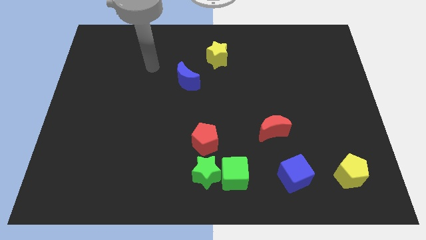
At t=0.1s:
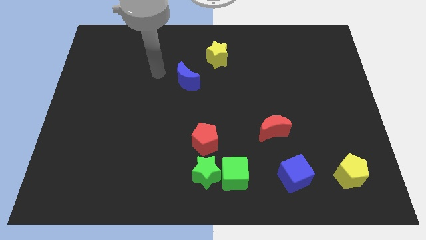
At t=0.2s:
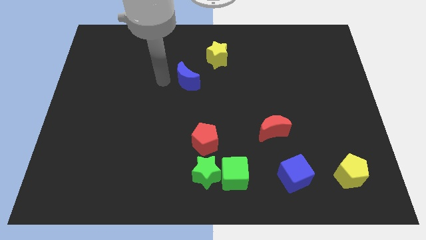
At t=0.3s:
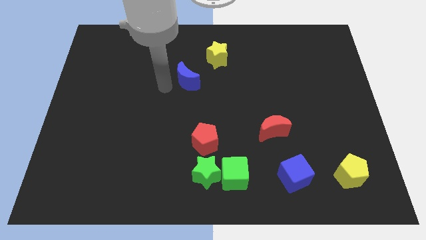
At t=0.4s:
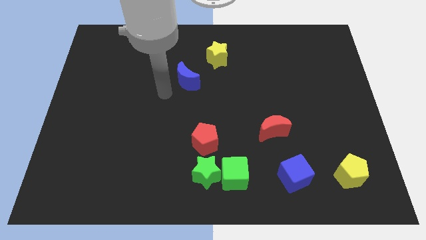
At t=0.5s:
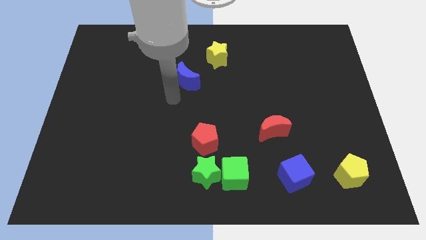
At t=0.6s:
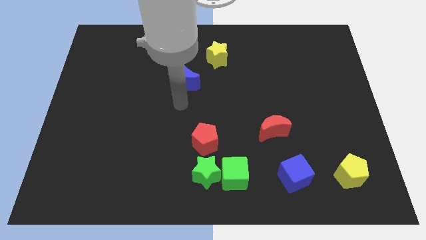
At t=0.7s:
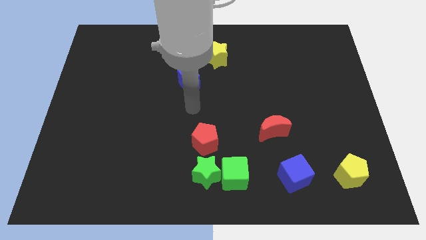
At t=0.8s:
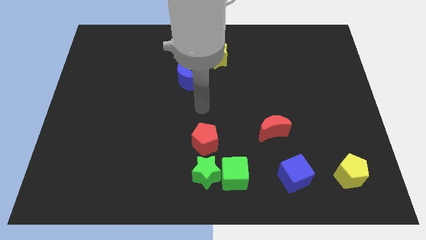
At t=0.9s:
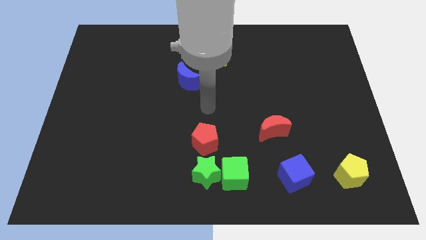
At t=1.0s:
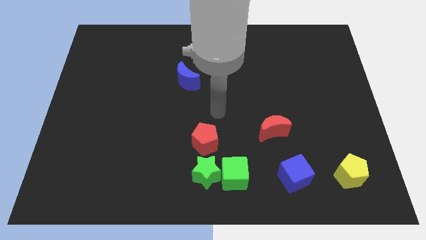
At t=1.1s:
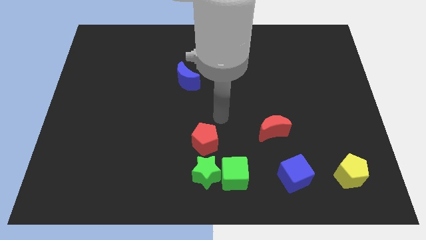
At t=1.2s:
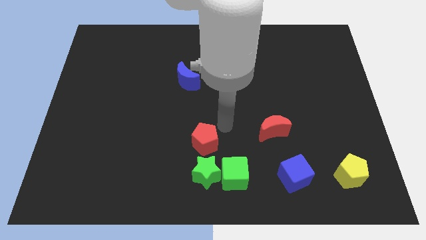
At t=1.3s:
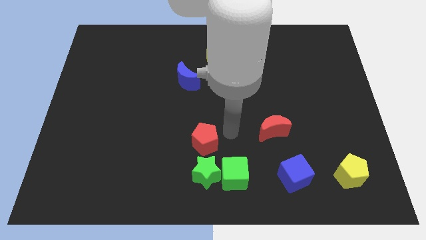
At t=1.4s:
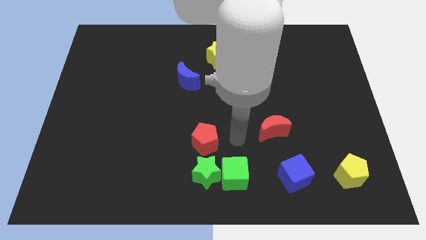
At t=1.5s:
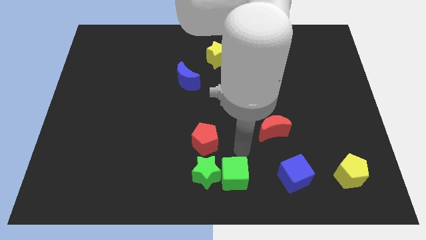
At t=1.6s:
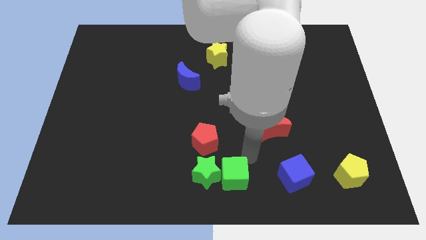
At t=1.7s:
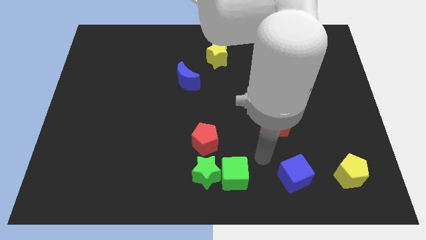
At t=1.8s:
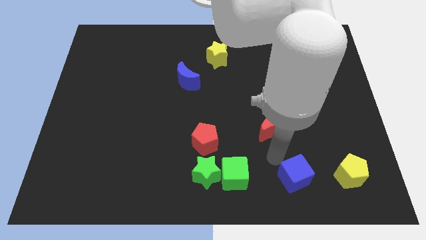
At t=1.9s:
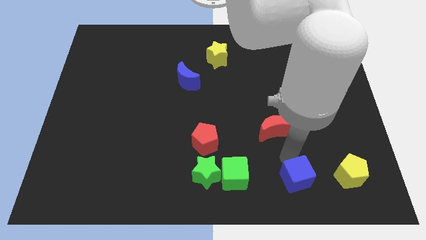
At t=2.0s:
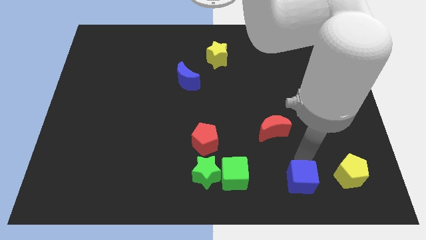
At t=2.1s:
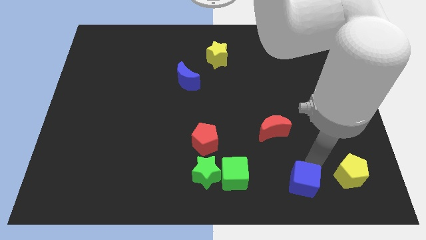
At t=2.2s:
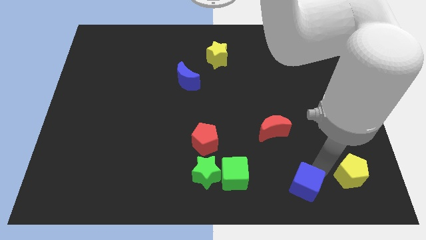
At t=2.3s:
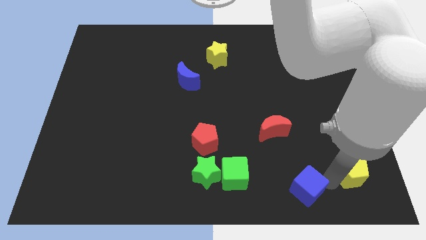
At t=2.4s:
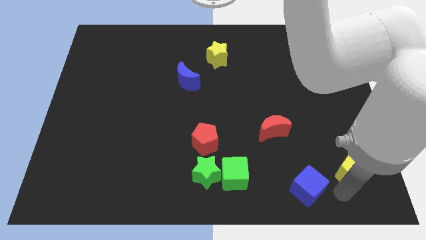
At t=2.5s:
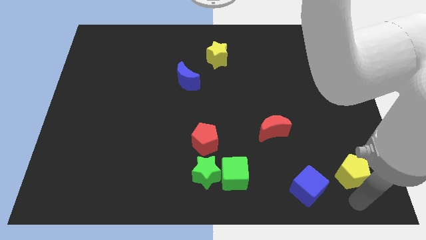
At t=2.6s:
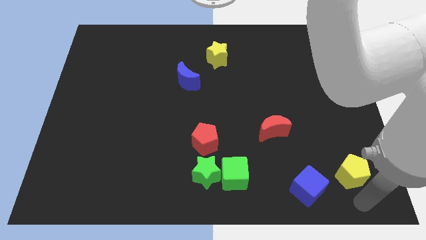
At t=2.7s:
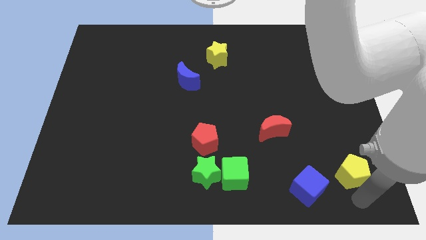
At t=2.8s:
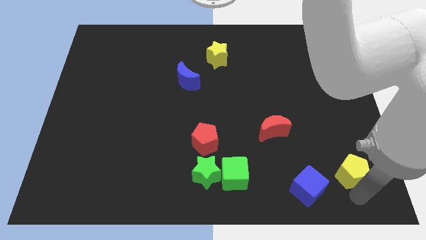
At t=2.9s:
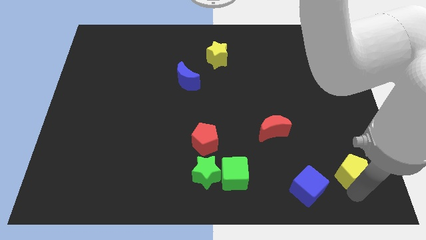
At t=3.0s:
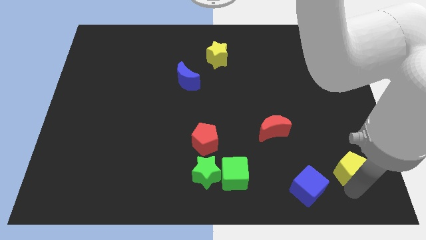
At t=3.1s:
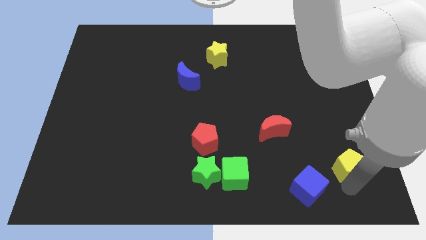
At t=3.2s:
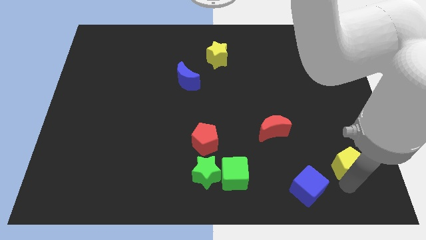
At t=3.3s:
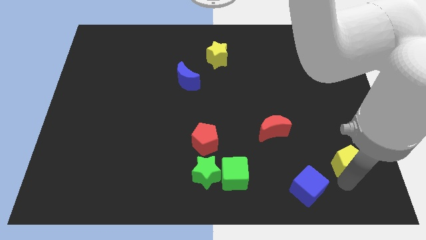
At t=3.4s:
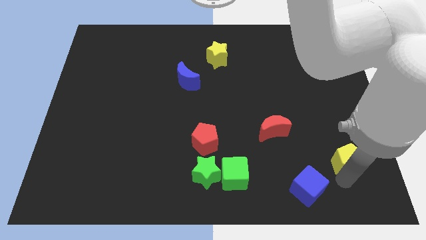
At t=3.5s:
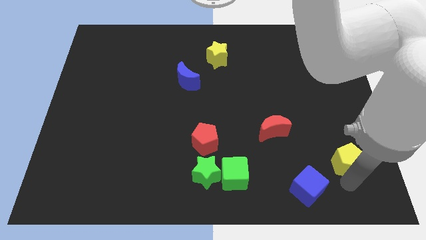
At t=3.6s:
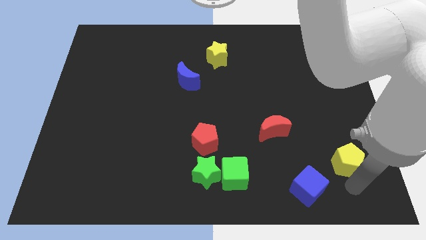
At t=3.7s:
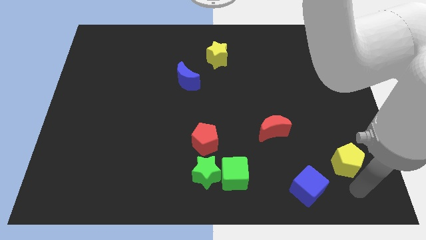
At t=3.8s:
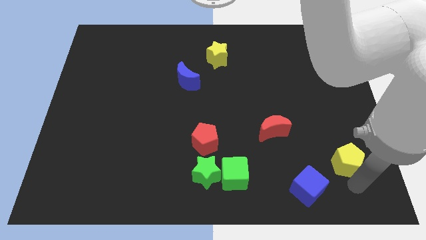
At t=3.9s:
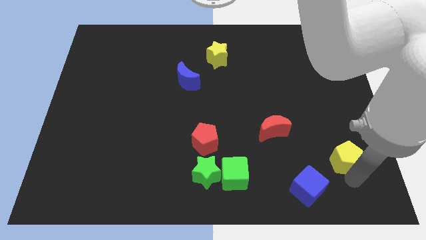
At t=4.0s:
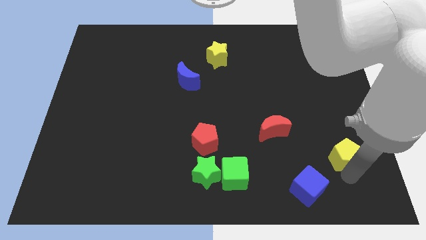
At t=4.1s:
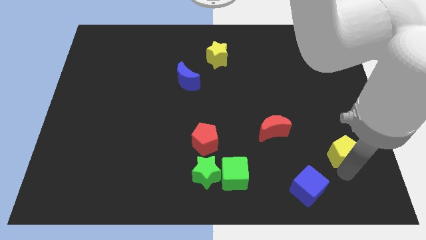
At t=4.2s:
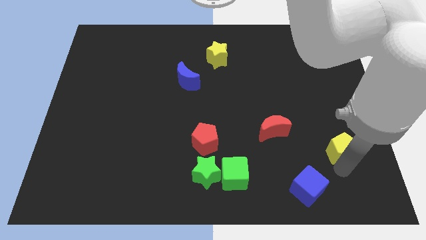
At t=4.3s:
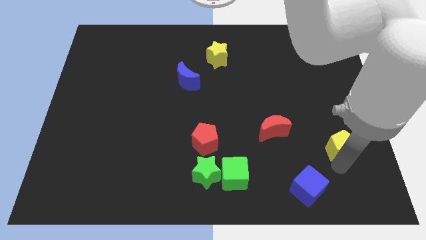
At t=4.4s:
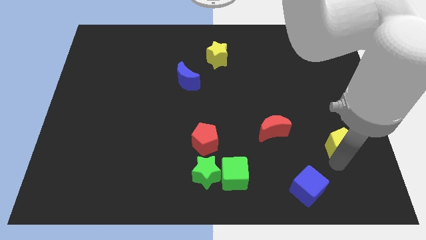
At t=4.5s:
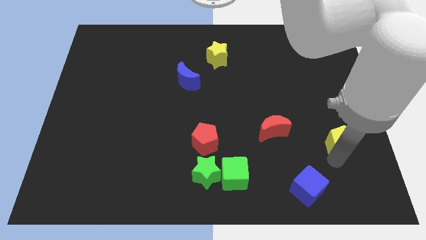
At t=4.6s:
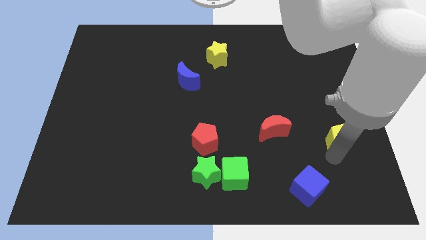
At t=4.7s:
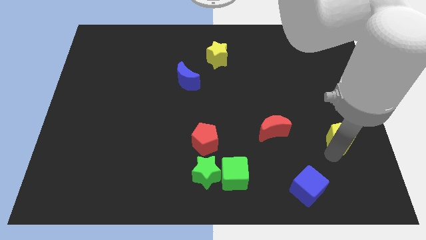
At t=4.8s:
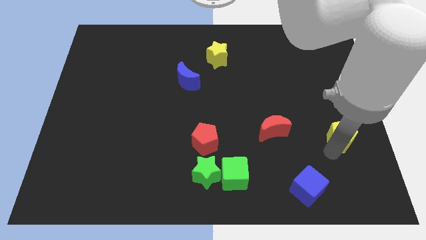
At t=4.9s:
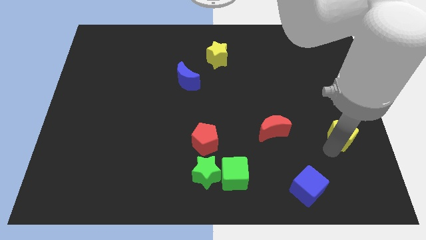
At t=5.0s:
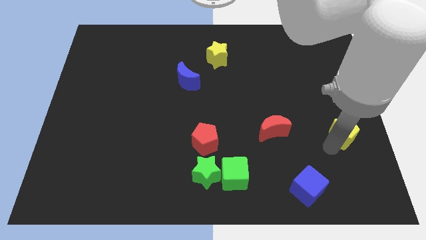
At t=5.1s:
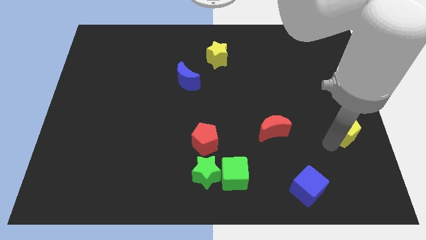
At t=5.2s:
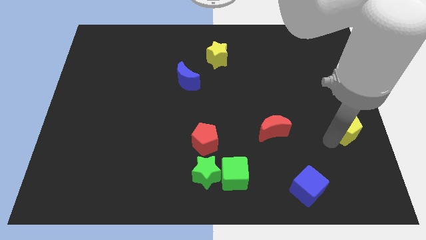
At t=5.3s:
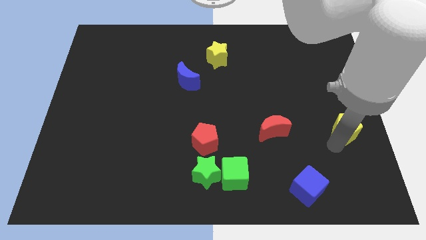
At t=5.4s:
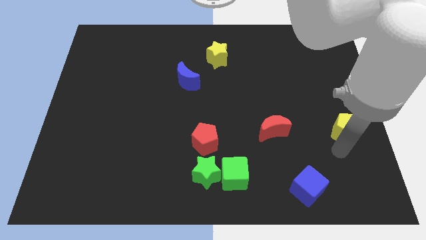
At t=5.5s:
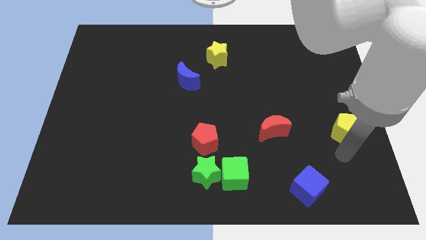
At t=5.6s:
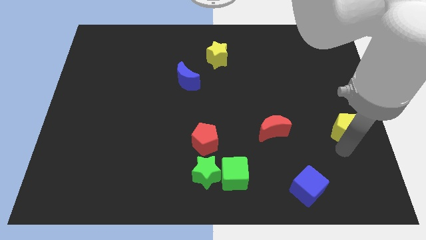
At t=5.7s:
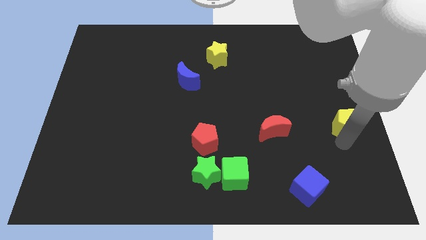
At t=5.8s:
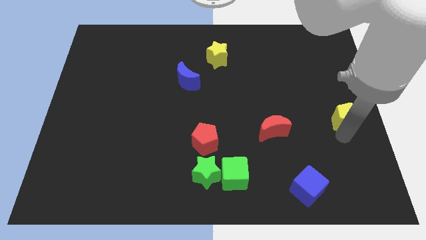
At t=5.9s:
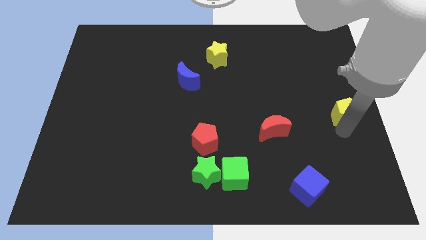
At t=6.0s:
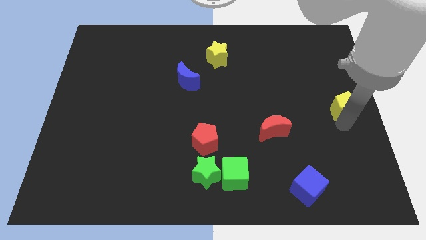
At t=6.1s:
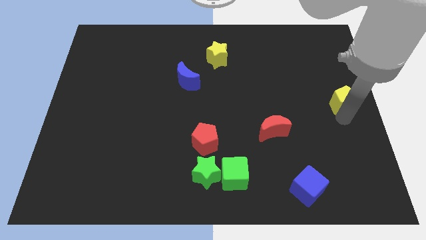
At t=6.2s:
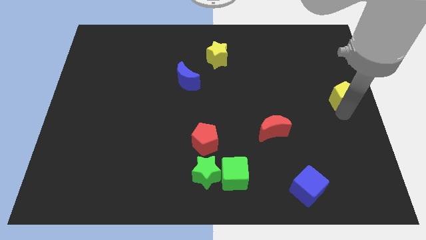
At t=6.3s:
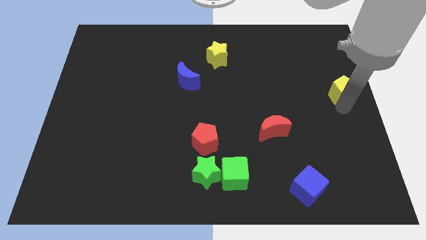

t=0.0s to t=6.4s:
push the yellow pentagon upwards

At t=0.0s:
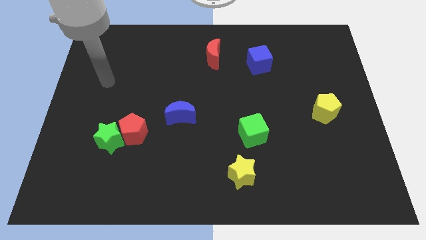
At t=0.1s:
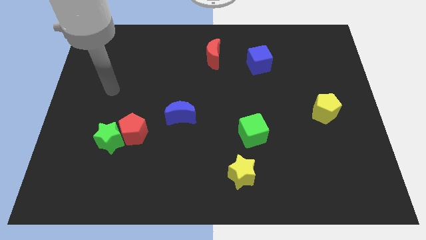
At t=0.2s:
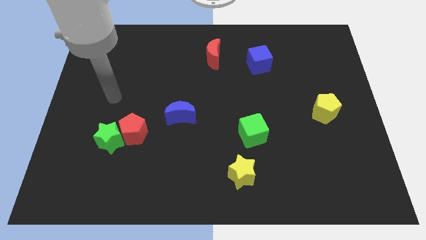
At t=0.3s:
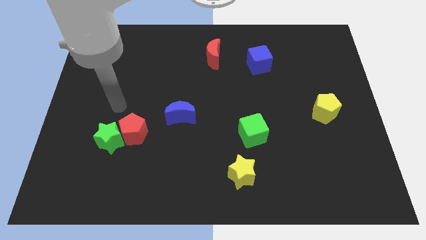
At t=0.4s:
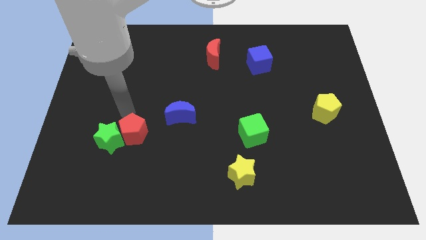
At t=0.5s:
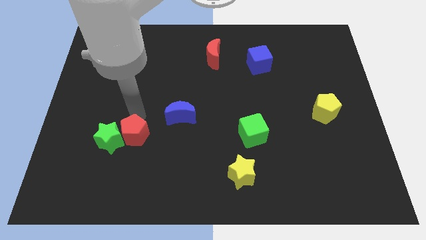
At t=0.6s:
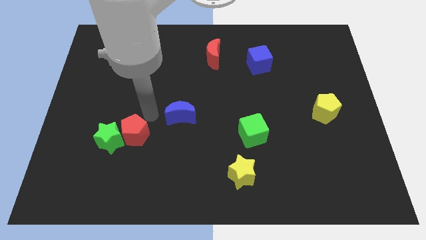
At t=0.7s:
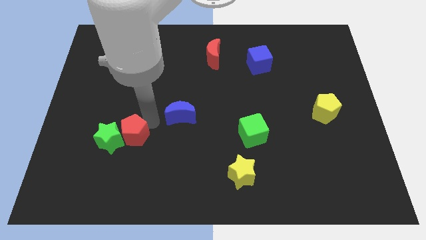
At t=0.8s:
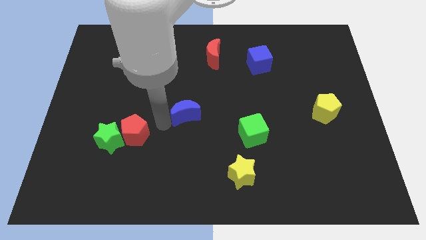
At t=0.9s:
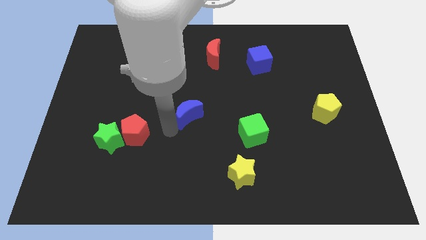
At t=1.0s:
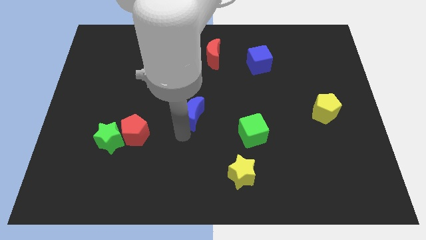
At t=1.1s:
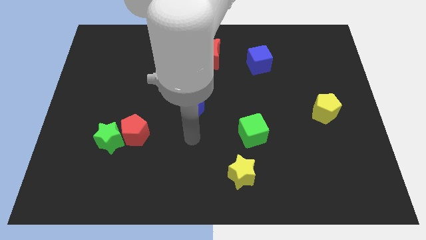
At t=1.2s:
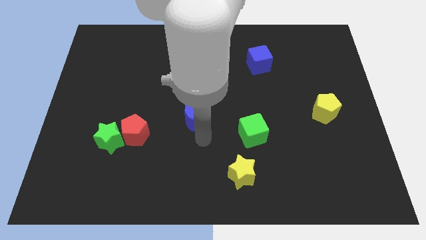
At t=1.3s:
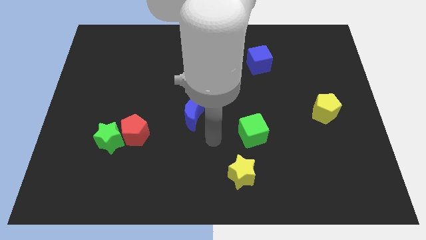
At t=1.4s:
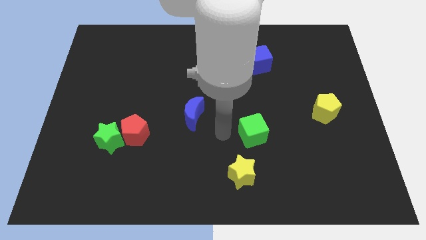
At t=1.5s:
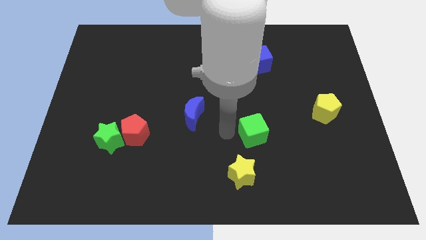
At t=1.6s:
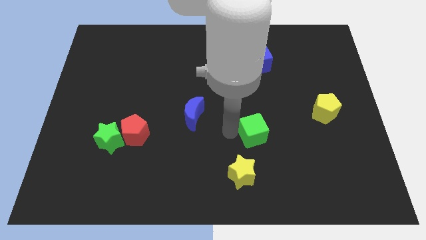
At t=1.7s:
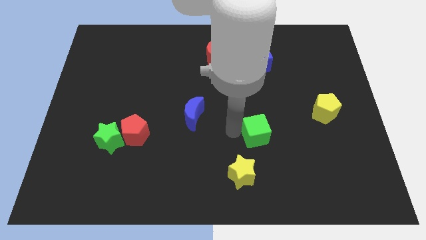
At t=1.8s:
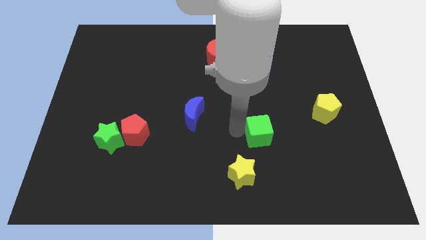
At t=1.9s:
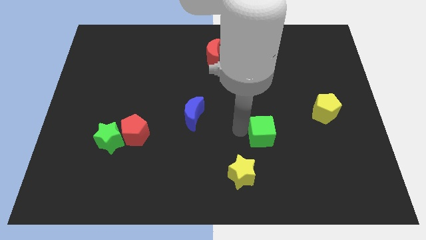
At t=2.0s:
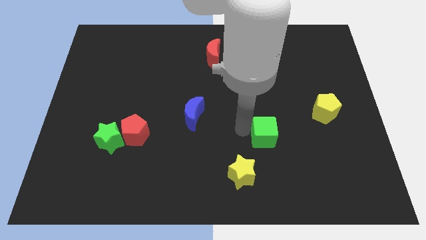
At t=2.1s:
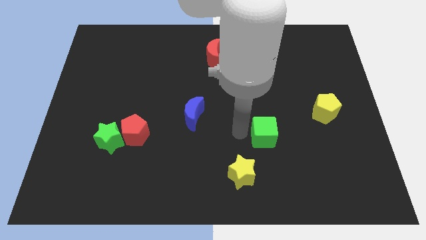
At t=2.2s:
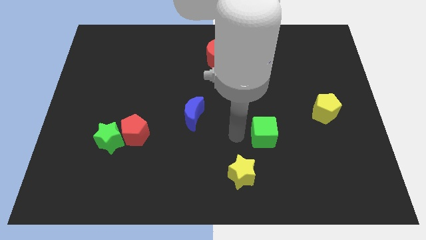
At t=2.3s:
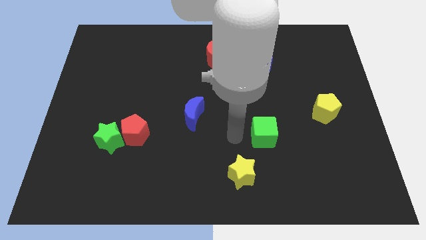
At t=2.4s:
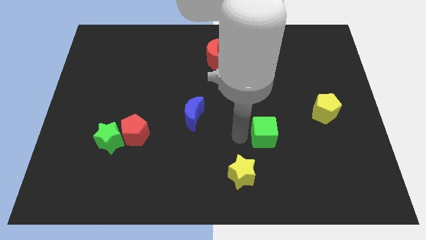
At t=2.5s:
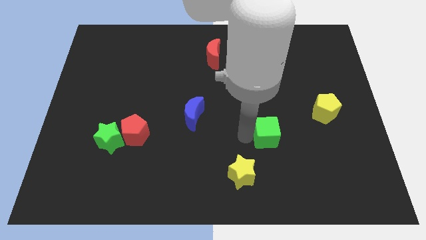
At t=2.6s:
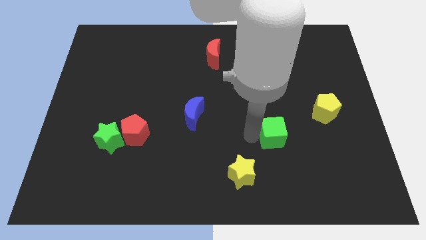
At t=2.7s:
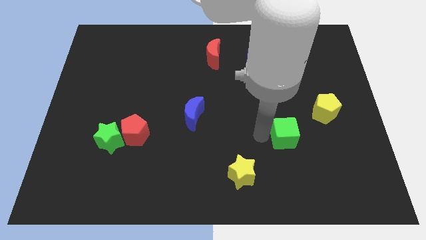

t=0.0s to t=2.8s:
move the green cube somewhat right
